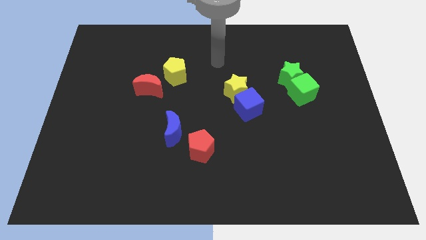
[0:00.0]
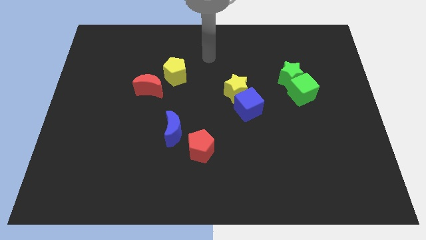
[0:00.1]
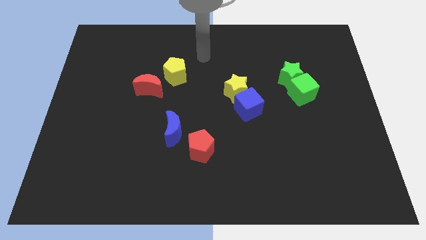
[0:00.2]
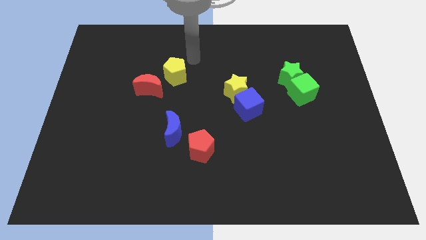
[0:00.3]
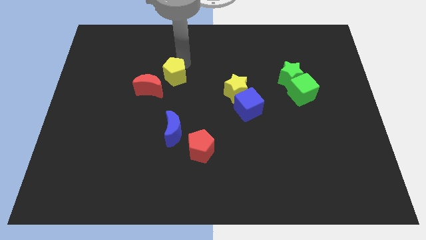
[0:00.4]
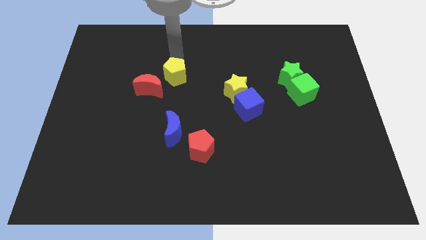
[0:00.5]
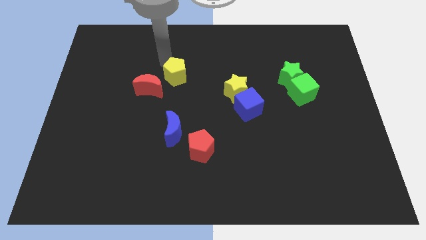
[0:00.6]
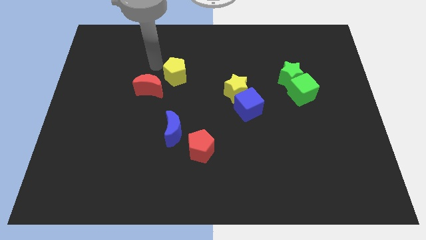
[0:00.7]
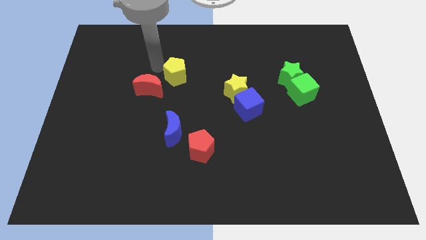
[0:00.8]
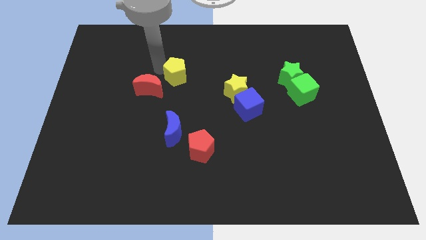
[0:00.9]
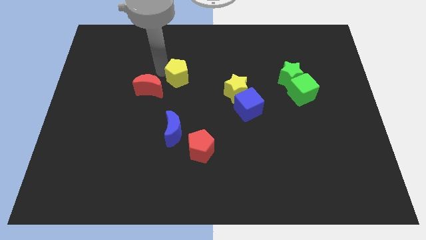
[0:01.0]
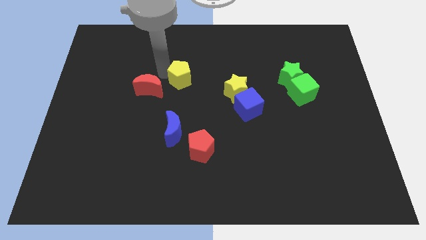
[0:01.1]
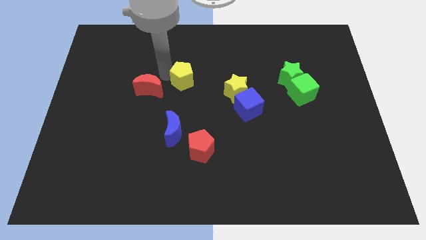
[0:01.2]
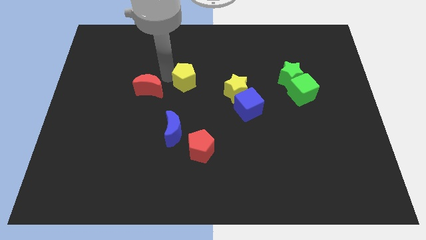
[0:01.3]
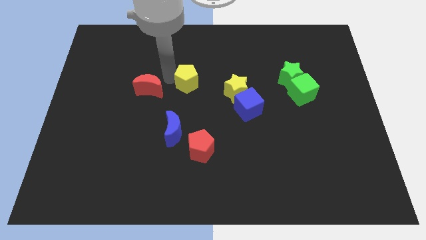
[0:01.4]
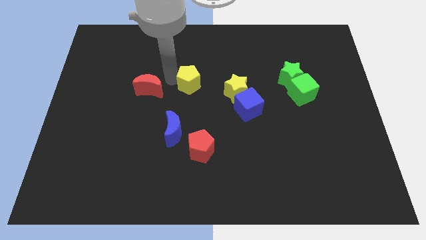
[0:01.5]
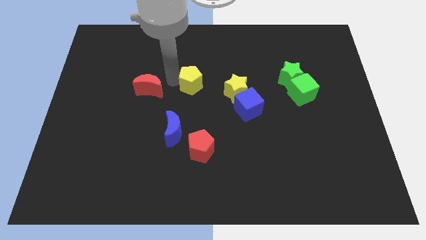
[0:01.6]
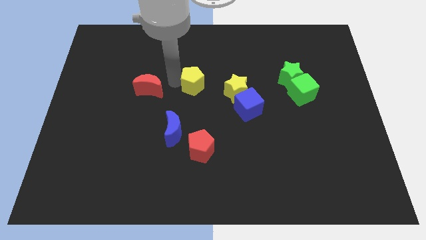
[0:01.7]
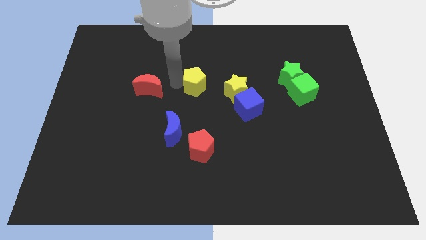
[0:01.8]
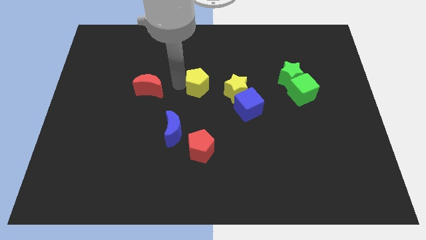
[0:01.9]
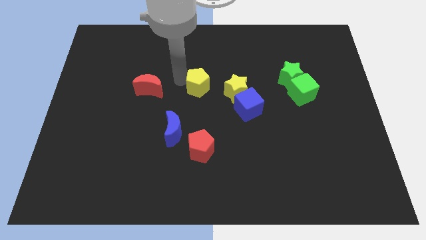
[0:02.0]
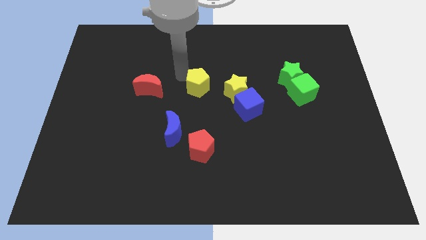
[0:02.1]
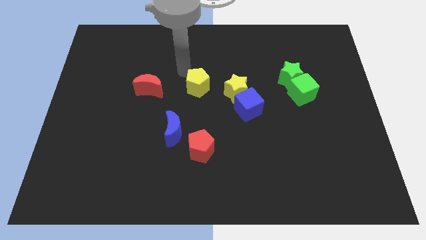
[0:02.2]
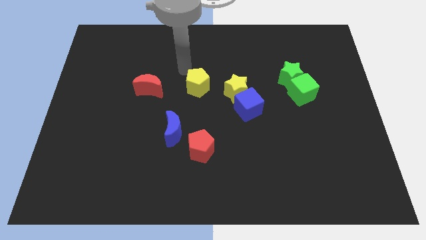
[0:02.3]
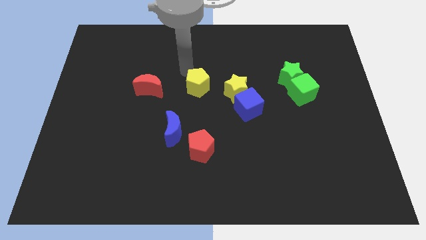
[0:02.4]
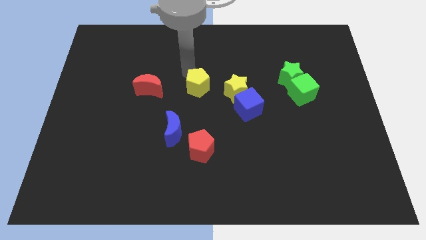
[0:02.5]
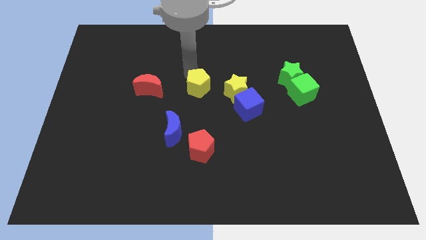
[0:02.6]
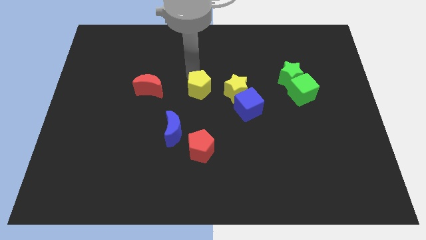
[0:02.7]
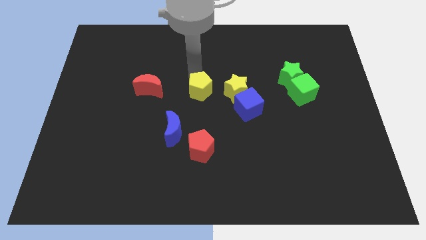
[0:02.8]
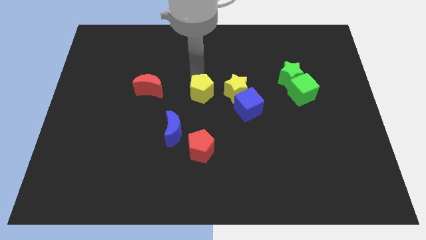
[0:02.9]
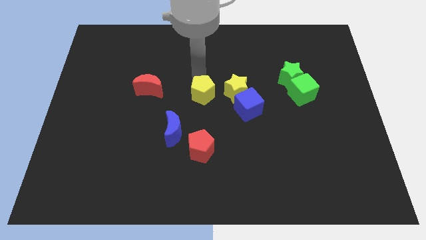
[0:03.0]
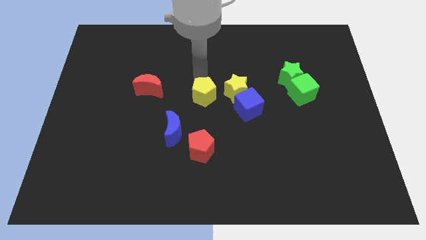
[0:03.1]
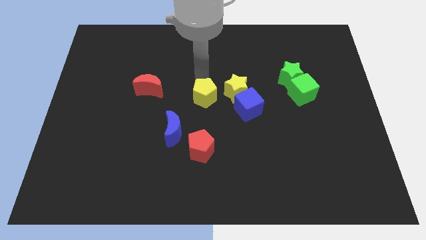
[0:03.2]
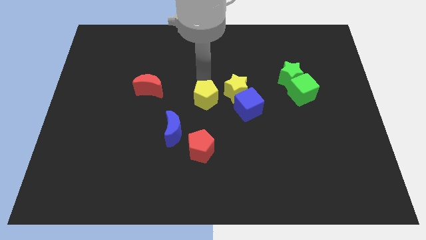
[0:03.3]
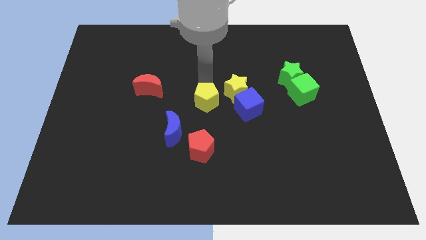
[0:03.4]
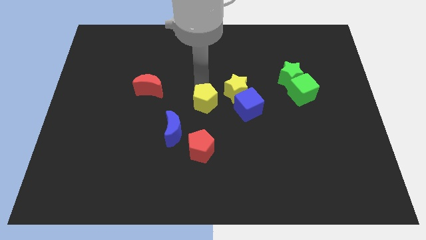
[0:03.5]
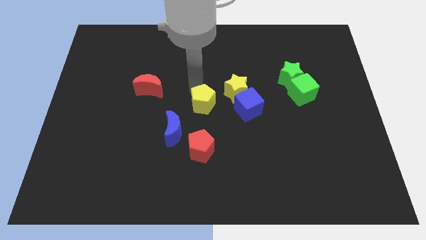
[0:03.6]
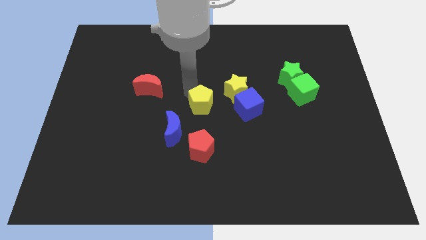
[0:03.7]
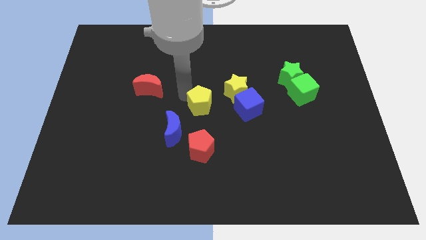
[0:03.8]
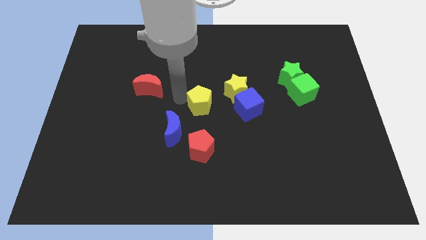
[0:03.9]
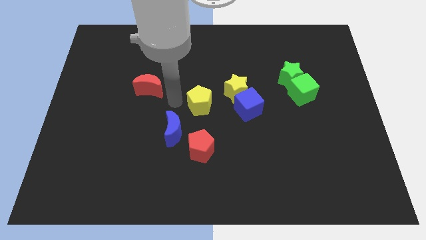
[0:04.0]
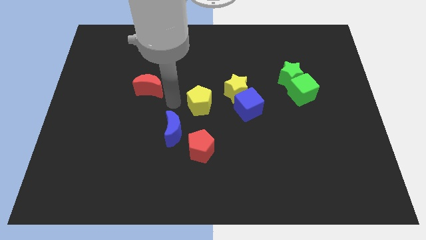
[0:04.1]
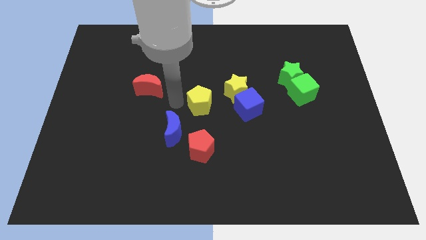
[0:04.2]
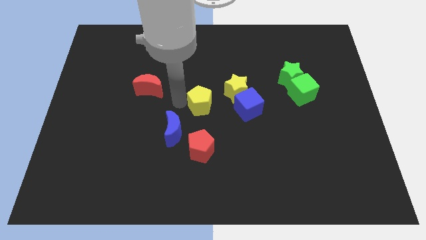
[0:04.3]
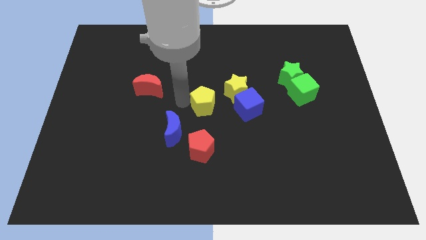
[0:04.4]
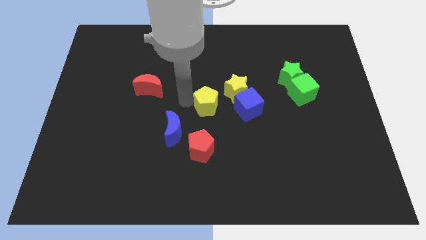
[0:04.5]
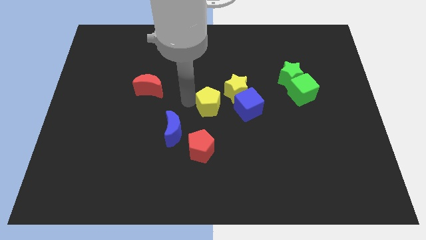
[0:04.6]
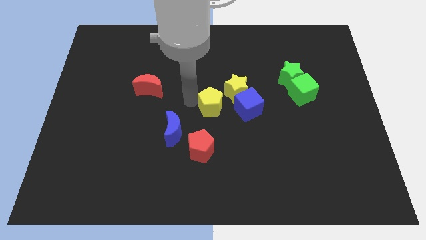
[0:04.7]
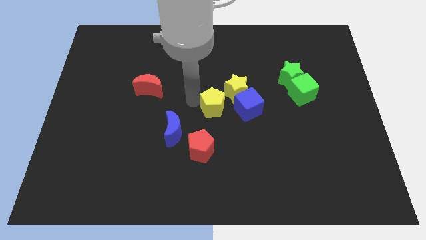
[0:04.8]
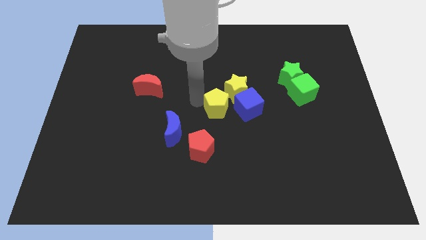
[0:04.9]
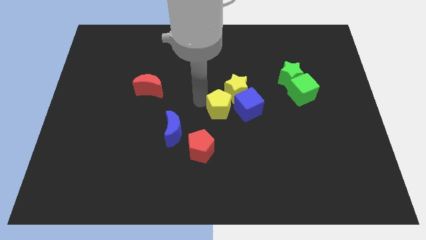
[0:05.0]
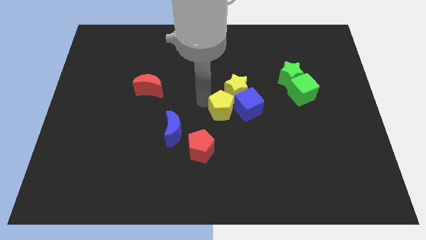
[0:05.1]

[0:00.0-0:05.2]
push the yellow pentagon to the blue cube

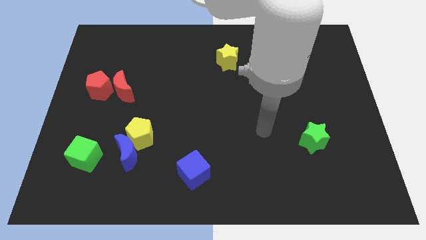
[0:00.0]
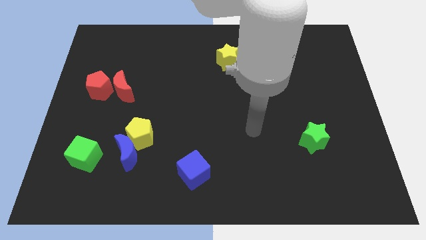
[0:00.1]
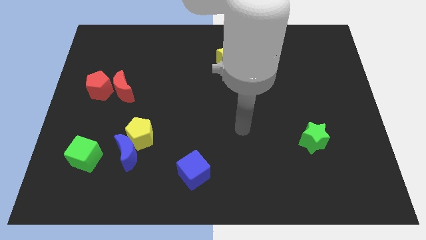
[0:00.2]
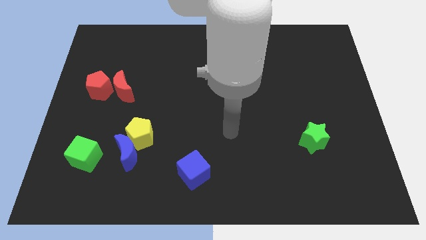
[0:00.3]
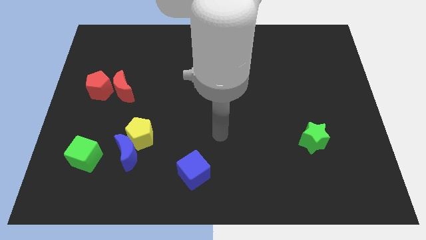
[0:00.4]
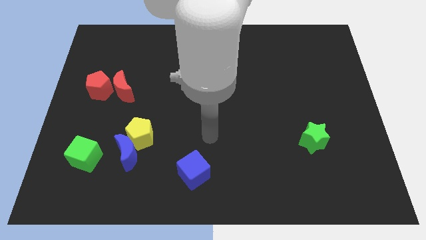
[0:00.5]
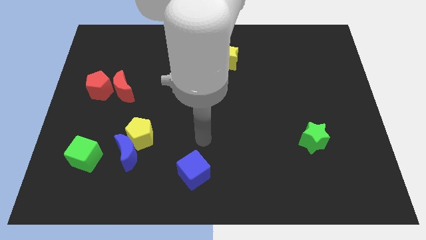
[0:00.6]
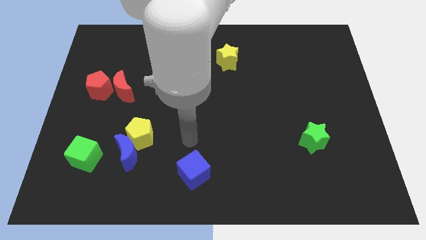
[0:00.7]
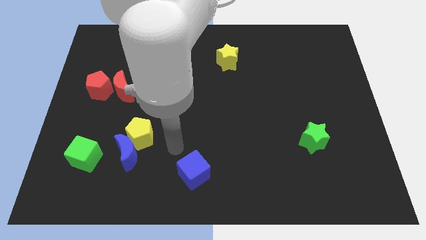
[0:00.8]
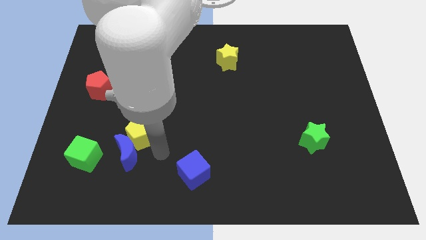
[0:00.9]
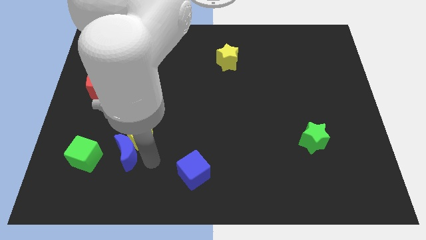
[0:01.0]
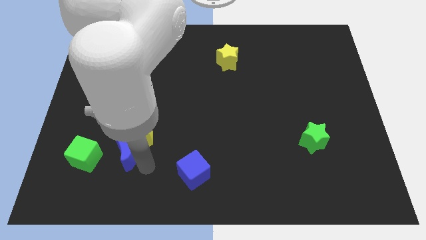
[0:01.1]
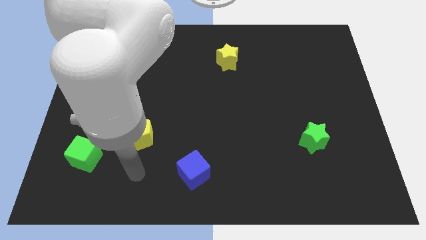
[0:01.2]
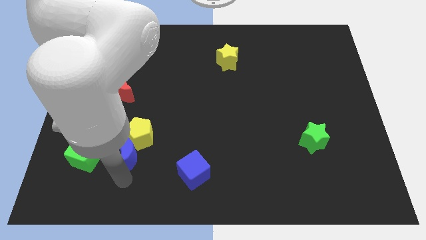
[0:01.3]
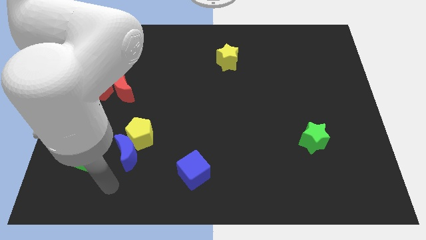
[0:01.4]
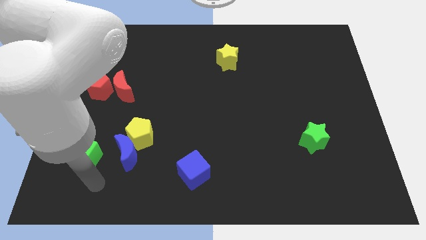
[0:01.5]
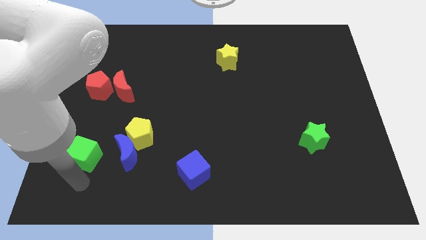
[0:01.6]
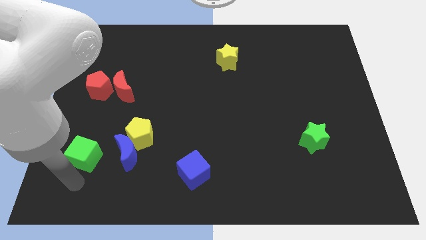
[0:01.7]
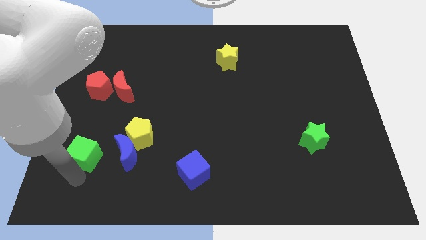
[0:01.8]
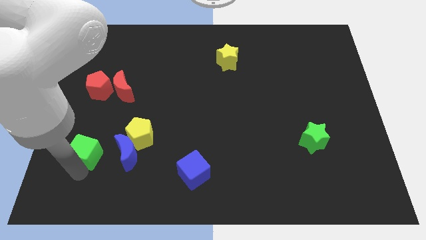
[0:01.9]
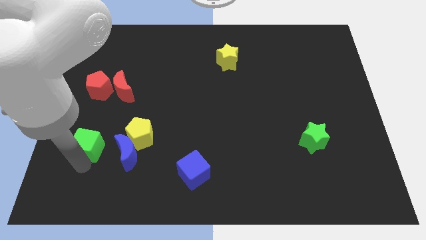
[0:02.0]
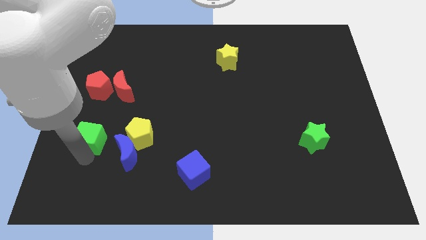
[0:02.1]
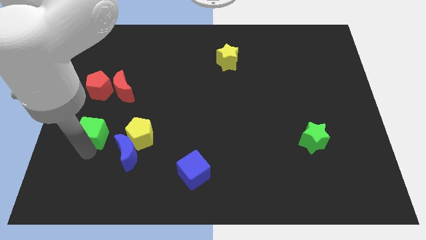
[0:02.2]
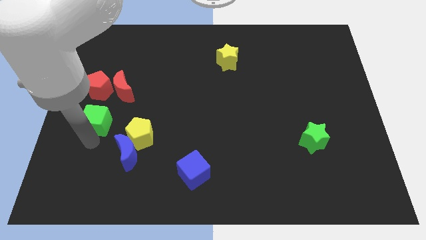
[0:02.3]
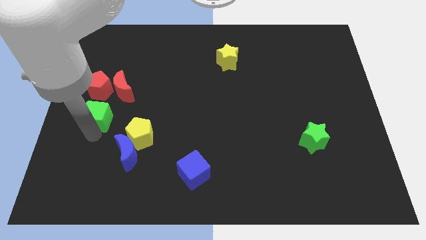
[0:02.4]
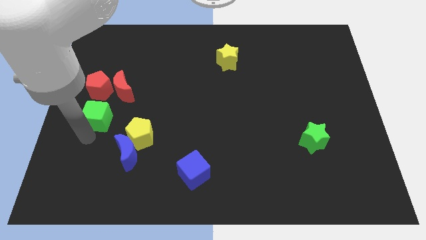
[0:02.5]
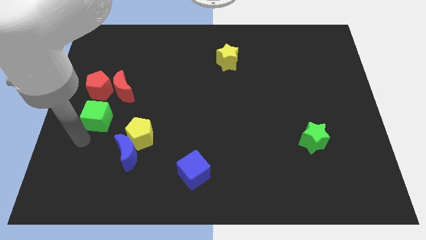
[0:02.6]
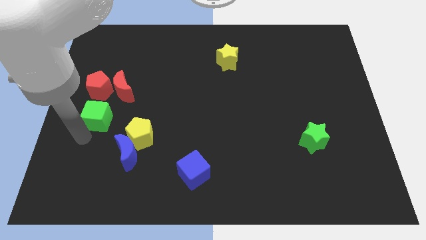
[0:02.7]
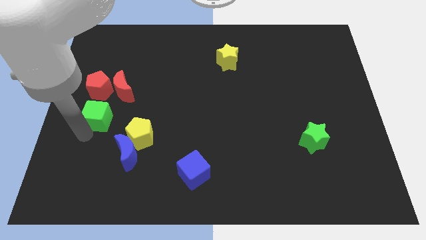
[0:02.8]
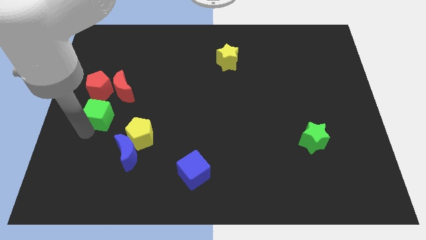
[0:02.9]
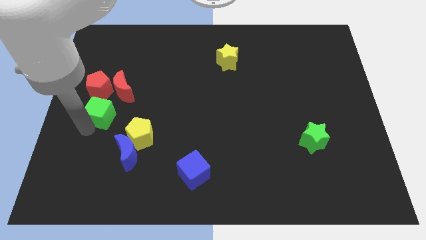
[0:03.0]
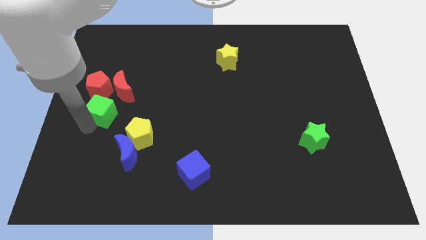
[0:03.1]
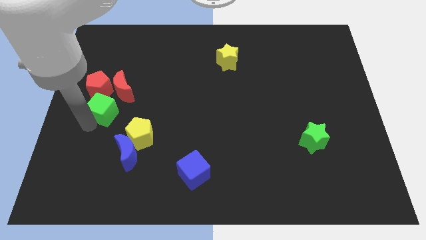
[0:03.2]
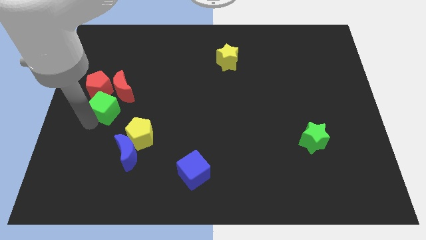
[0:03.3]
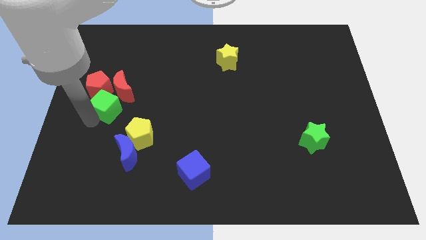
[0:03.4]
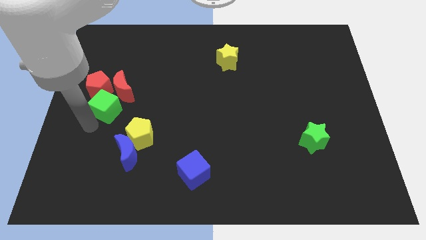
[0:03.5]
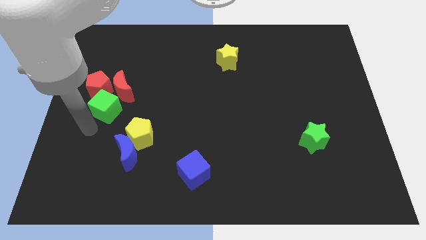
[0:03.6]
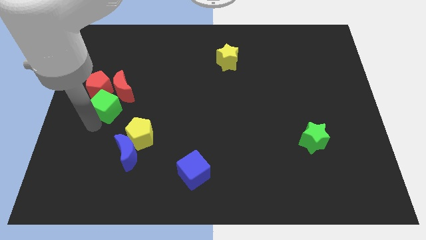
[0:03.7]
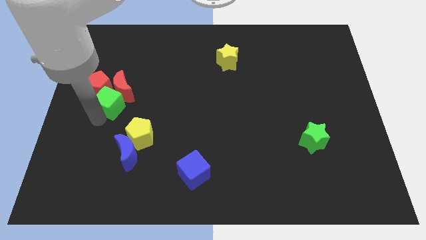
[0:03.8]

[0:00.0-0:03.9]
push the green cube to the red moon
